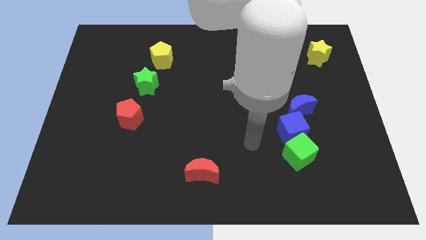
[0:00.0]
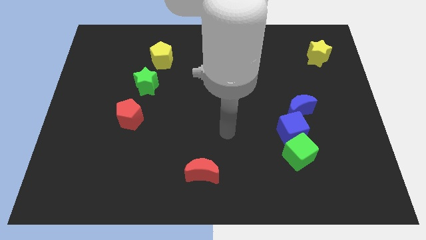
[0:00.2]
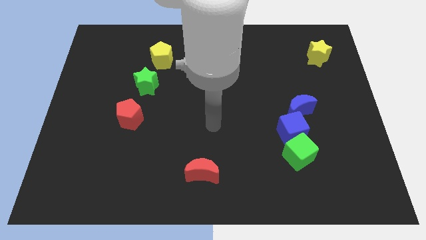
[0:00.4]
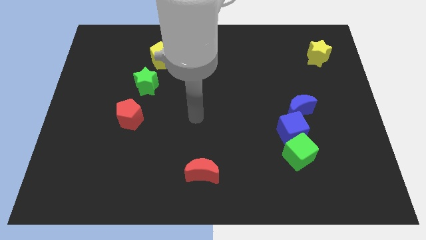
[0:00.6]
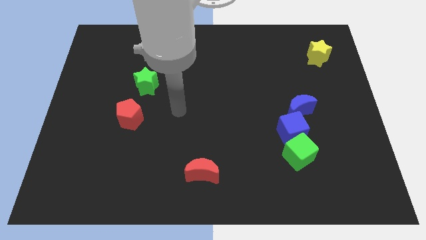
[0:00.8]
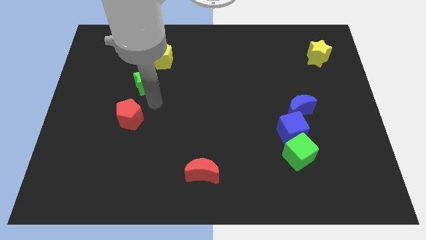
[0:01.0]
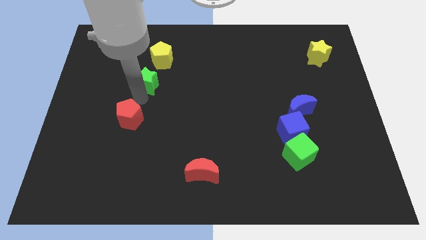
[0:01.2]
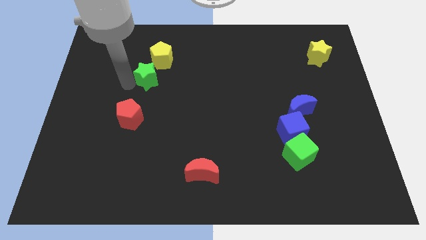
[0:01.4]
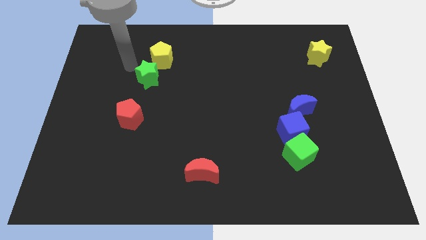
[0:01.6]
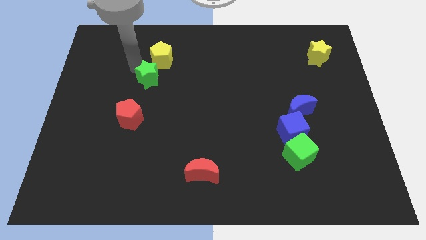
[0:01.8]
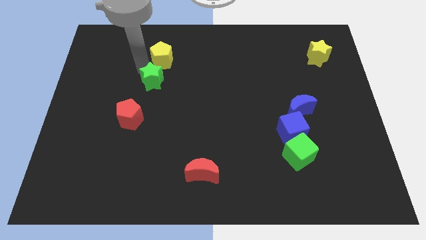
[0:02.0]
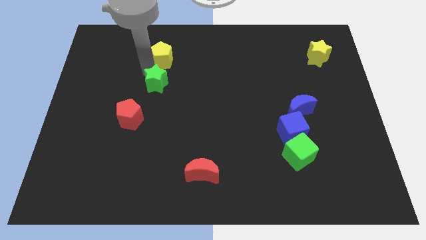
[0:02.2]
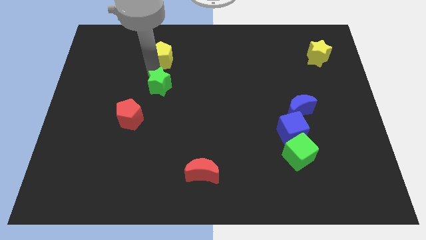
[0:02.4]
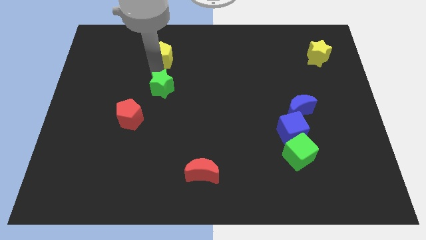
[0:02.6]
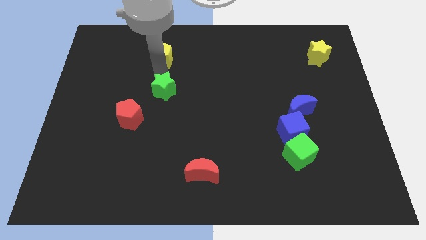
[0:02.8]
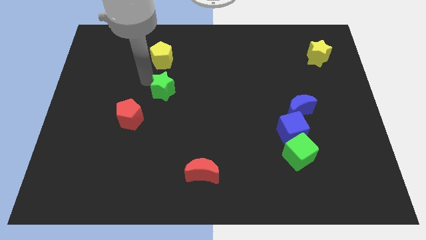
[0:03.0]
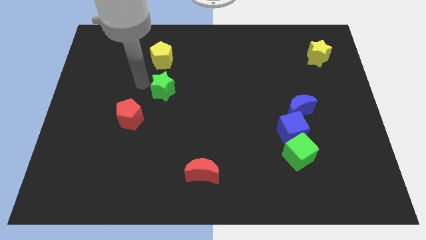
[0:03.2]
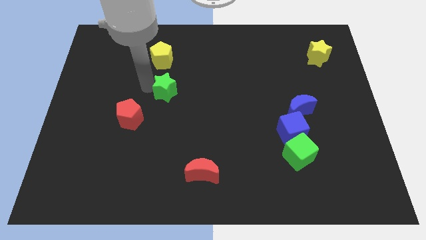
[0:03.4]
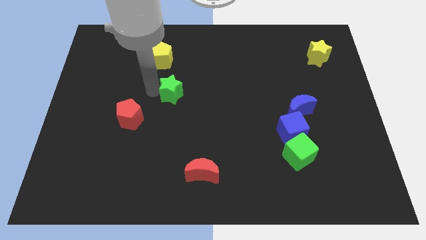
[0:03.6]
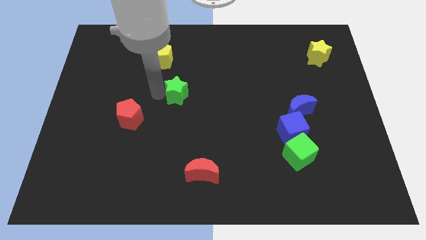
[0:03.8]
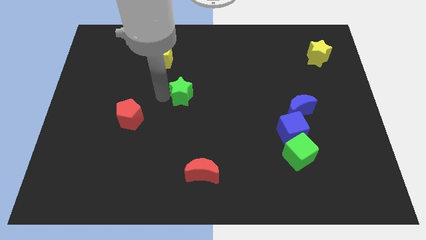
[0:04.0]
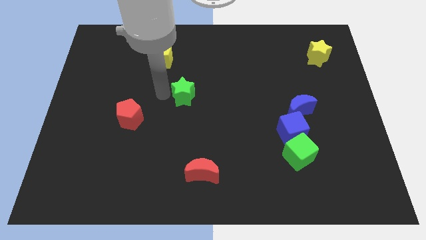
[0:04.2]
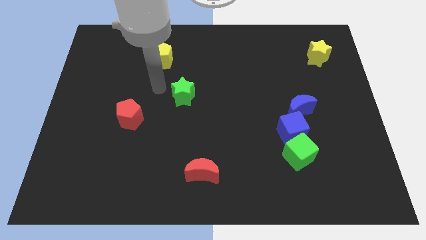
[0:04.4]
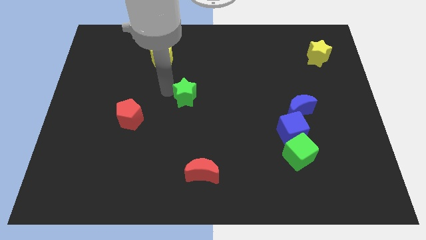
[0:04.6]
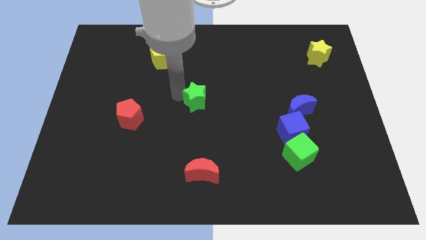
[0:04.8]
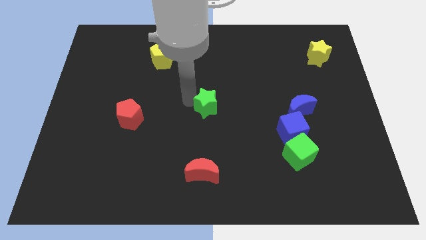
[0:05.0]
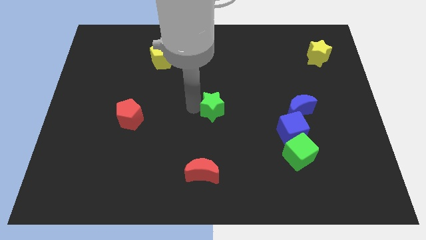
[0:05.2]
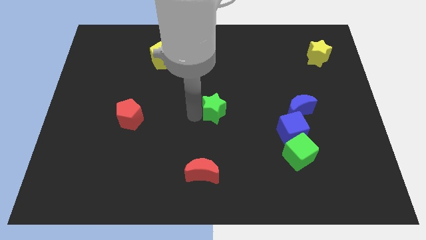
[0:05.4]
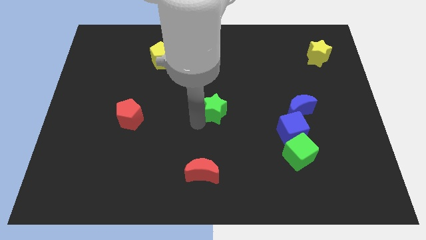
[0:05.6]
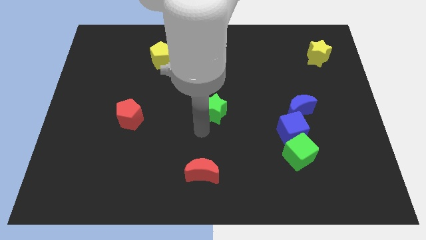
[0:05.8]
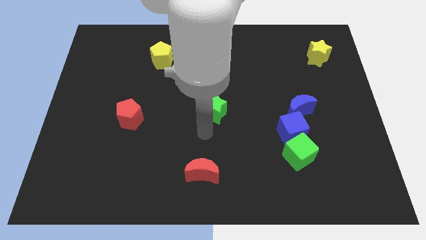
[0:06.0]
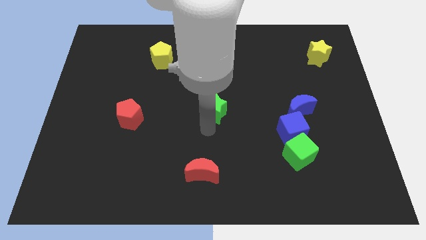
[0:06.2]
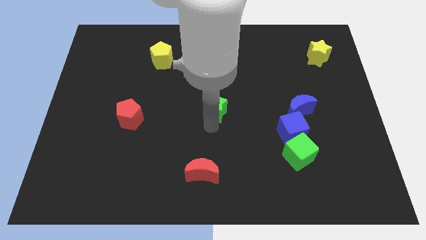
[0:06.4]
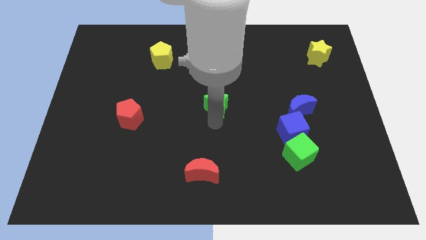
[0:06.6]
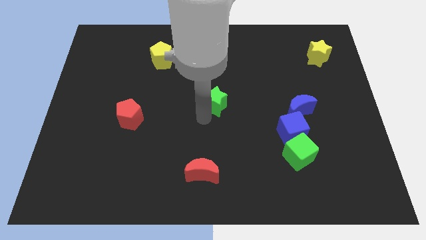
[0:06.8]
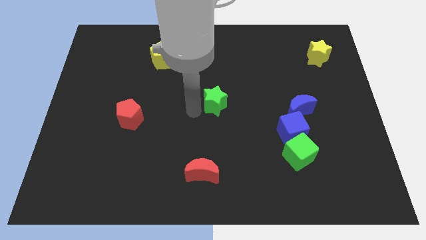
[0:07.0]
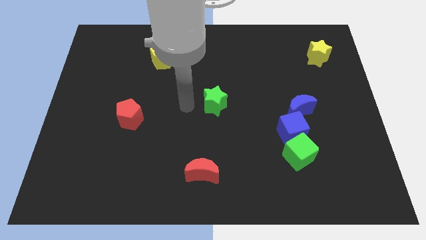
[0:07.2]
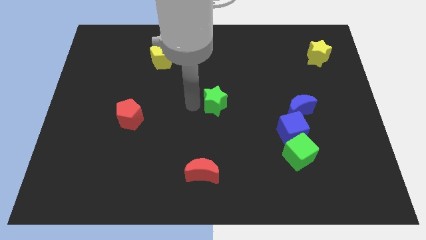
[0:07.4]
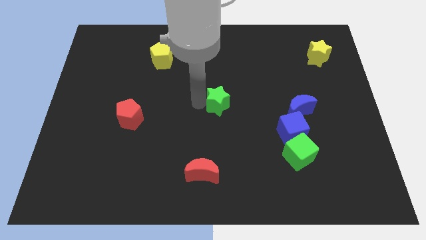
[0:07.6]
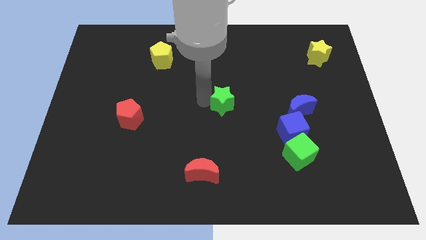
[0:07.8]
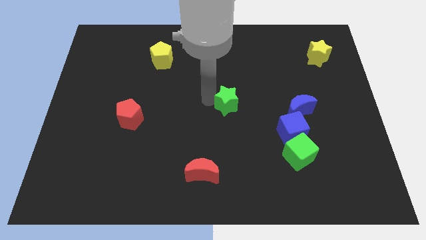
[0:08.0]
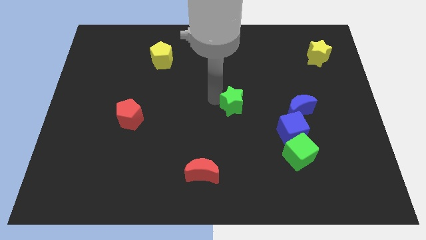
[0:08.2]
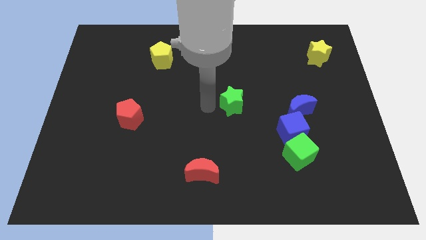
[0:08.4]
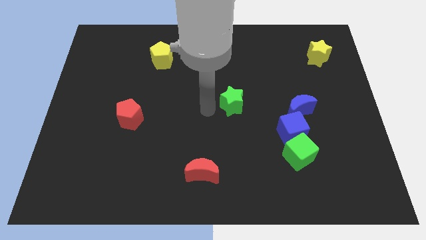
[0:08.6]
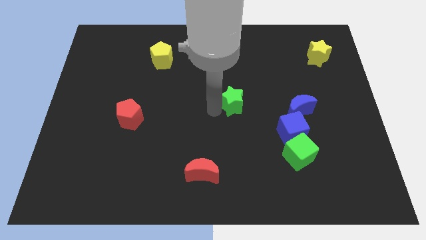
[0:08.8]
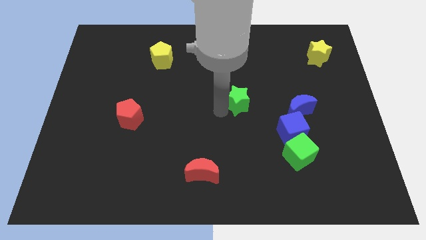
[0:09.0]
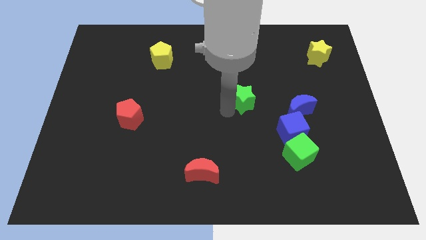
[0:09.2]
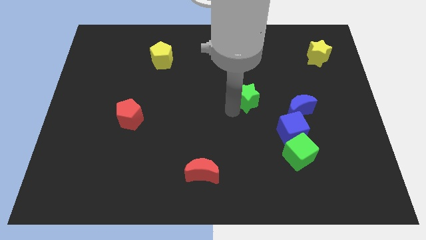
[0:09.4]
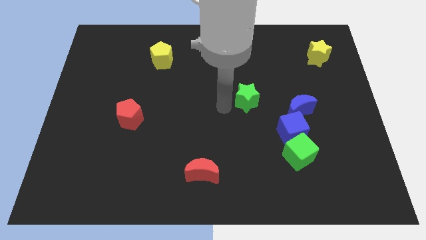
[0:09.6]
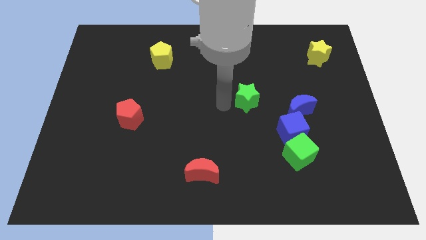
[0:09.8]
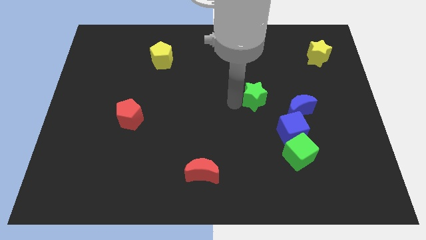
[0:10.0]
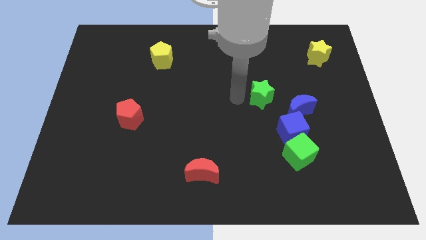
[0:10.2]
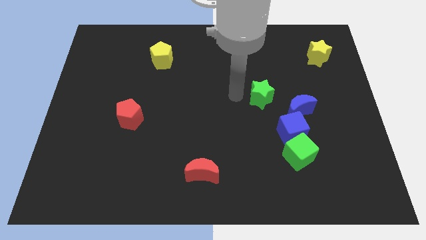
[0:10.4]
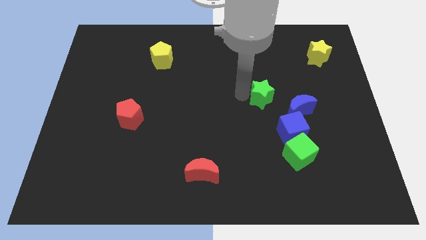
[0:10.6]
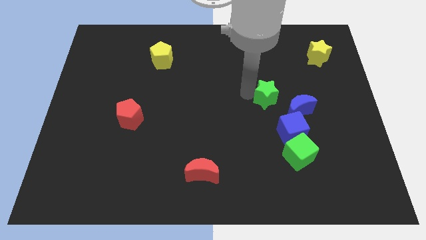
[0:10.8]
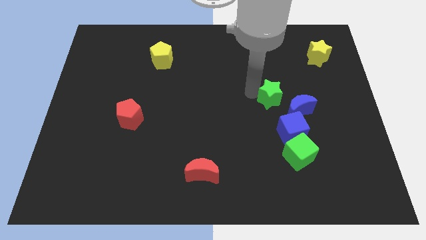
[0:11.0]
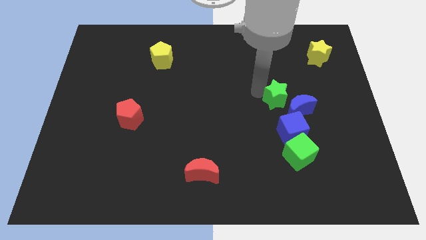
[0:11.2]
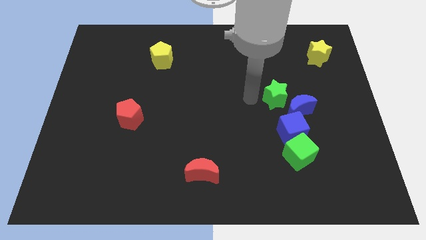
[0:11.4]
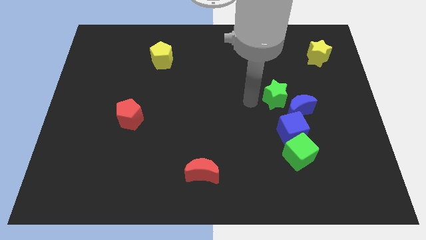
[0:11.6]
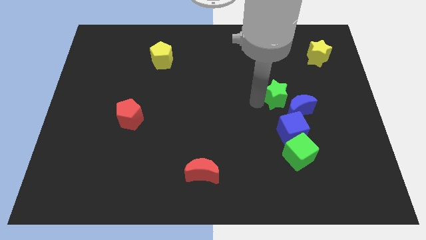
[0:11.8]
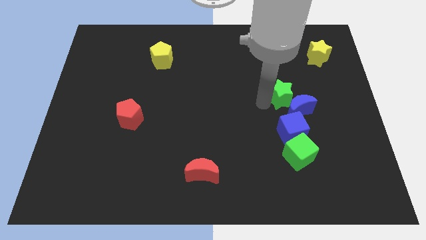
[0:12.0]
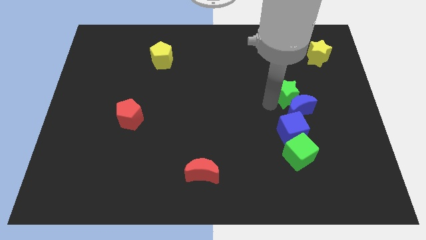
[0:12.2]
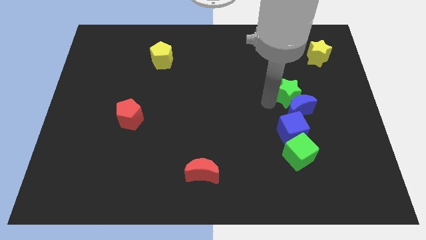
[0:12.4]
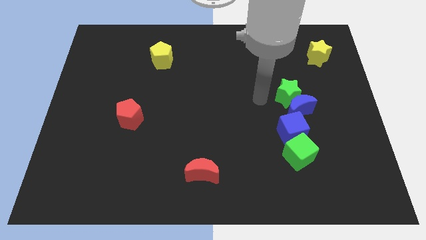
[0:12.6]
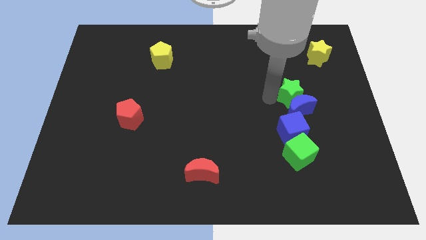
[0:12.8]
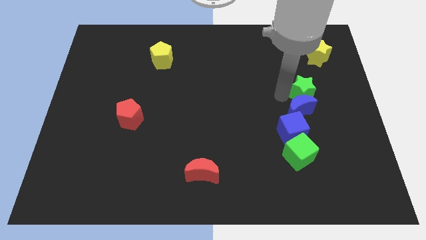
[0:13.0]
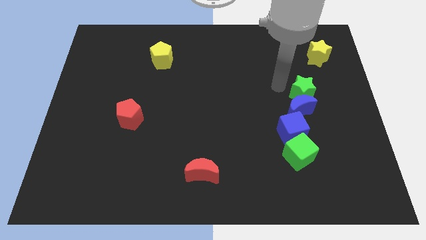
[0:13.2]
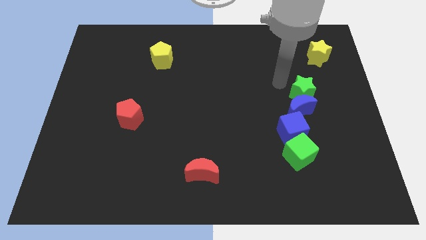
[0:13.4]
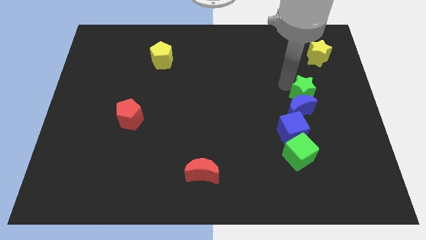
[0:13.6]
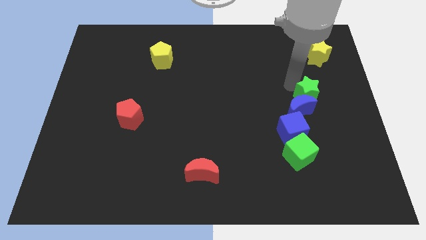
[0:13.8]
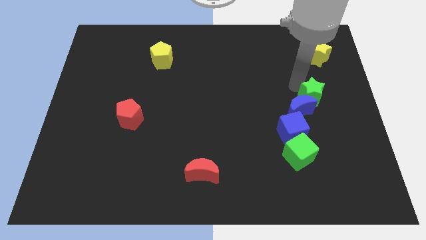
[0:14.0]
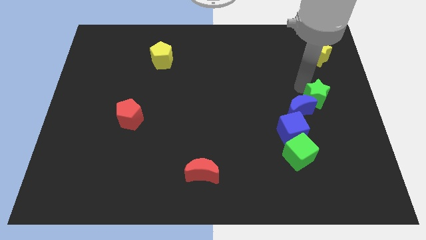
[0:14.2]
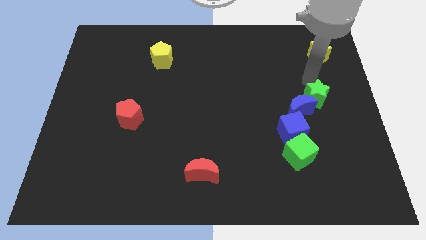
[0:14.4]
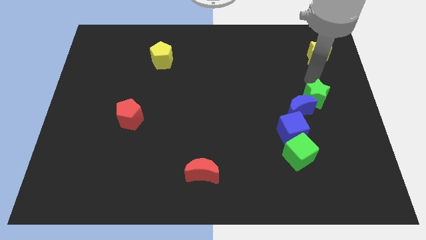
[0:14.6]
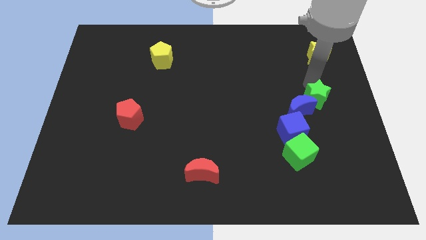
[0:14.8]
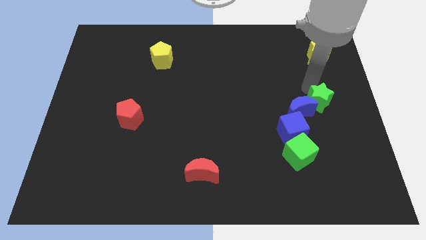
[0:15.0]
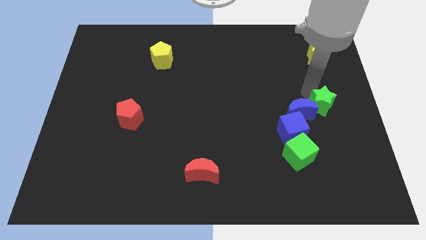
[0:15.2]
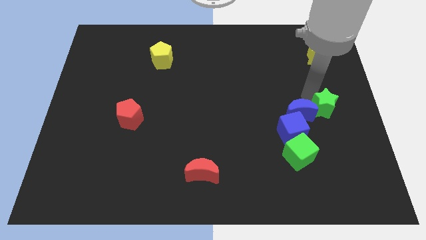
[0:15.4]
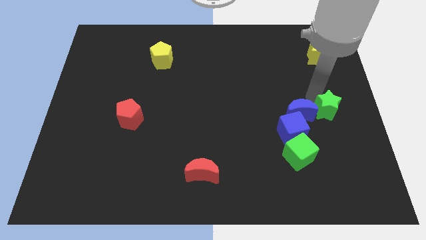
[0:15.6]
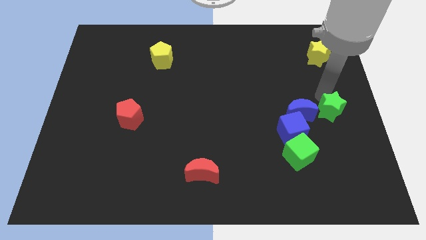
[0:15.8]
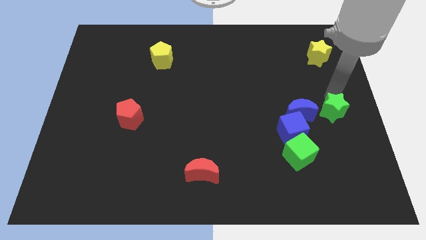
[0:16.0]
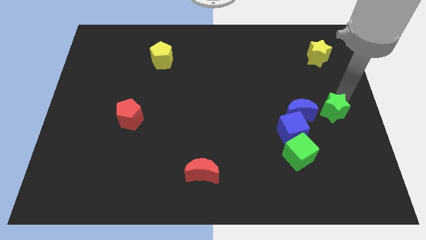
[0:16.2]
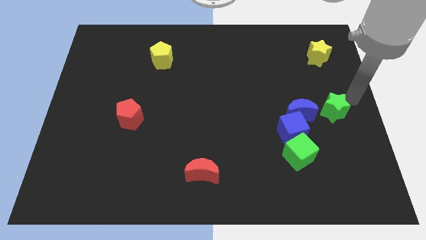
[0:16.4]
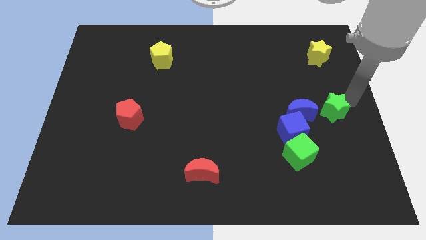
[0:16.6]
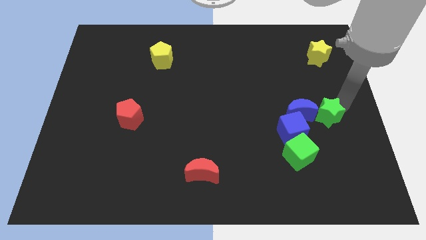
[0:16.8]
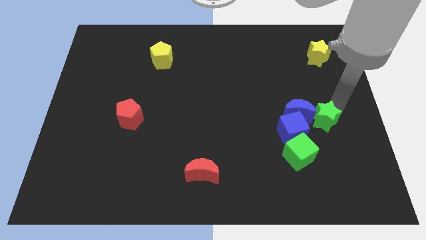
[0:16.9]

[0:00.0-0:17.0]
slide the green star diagonally up and to the right of the green cube
